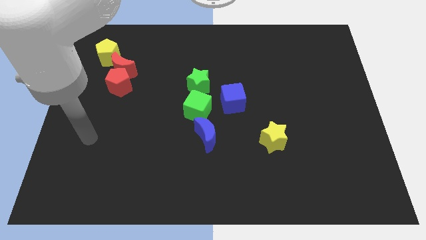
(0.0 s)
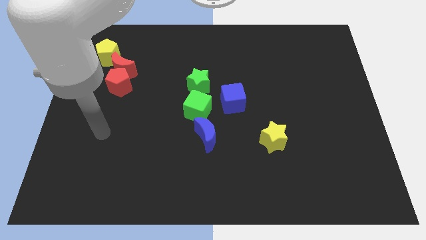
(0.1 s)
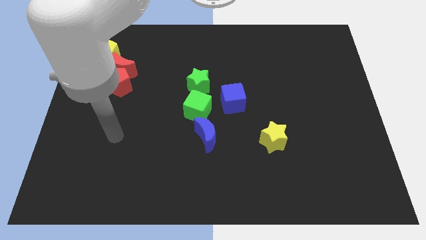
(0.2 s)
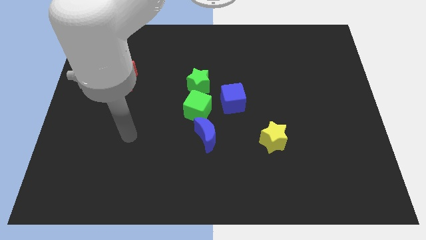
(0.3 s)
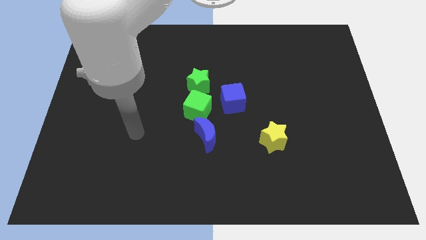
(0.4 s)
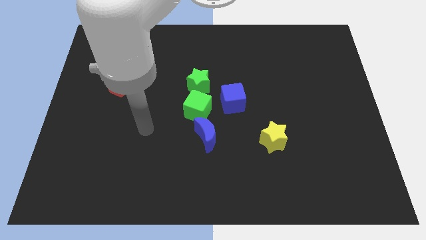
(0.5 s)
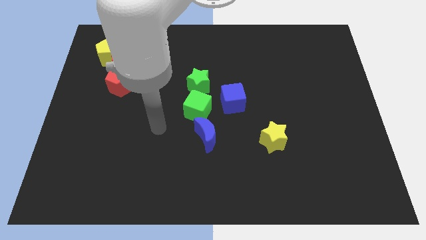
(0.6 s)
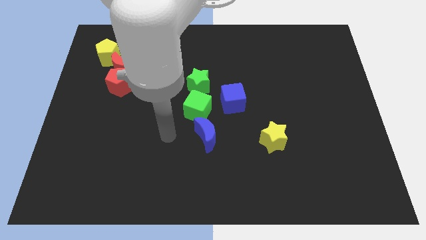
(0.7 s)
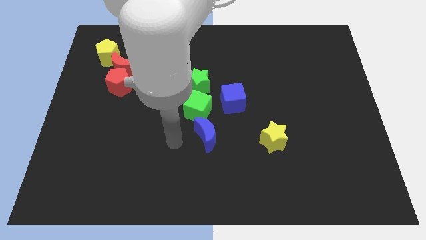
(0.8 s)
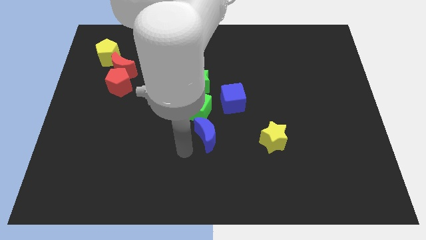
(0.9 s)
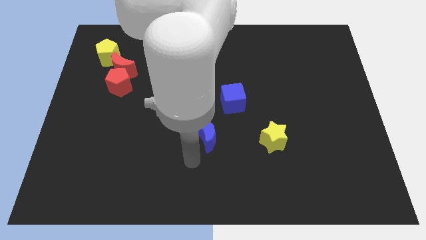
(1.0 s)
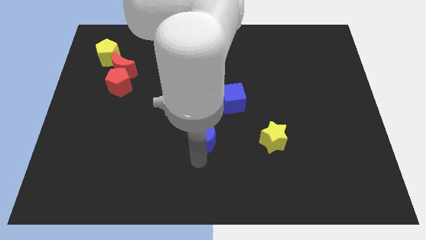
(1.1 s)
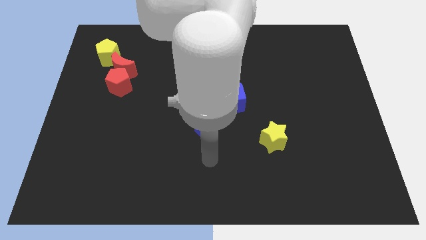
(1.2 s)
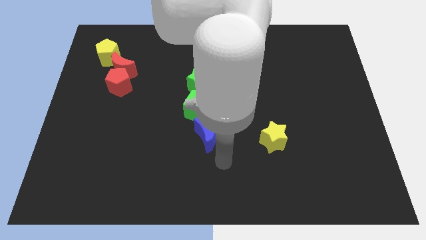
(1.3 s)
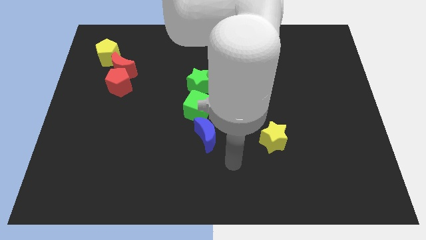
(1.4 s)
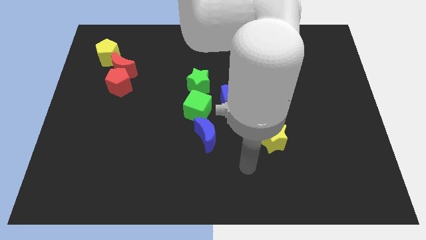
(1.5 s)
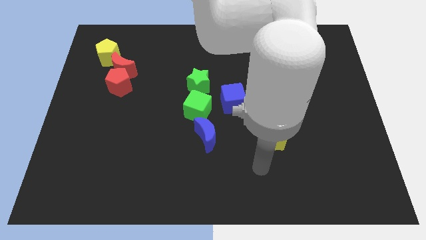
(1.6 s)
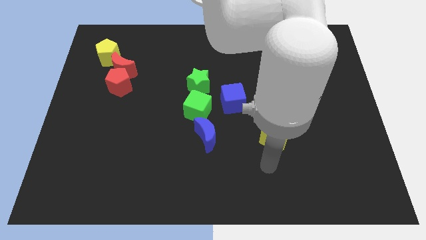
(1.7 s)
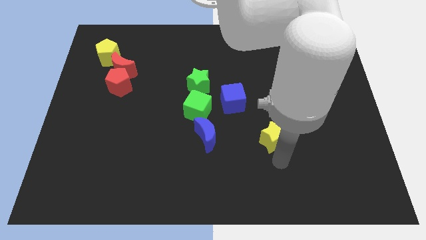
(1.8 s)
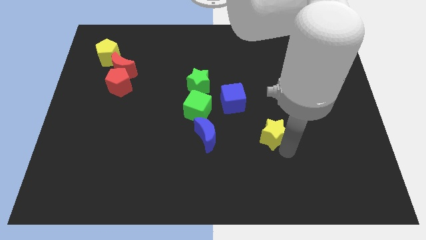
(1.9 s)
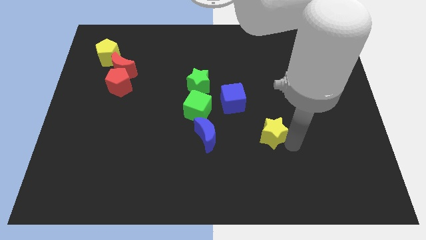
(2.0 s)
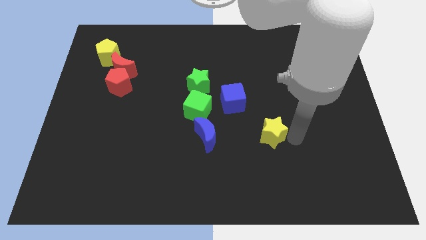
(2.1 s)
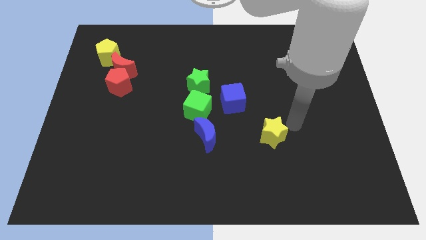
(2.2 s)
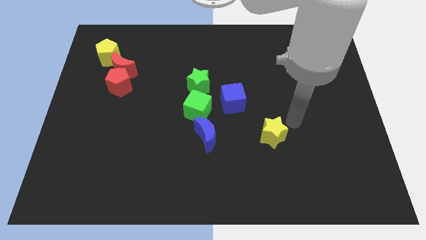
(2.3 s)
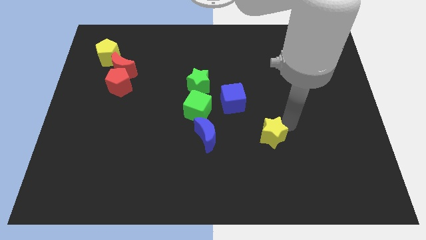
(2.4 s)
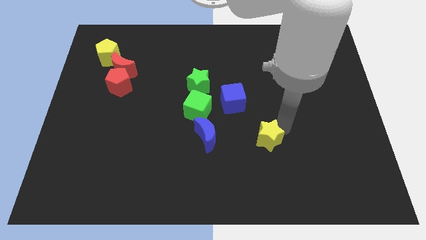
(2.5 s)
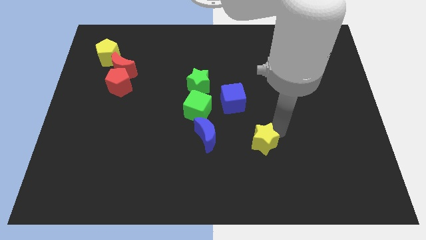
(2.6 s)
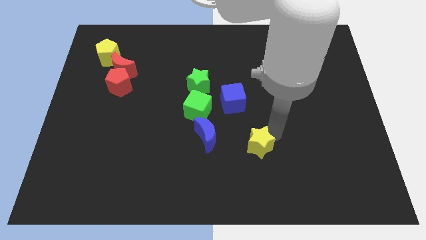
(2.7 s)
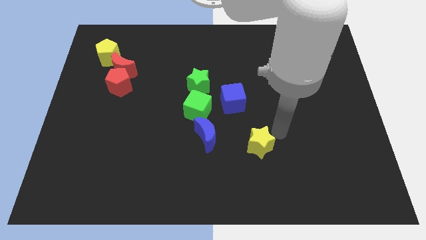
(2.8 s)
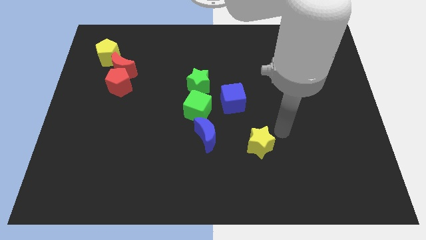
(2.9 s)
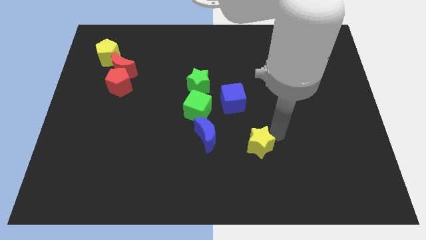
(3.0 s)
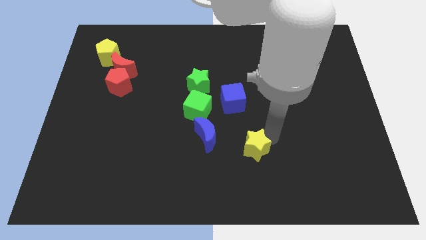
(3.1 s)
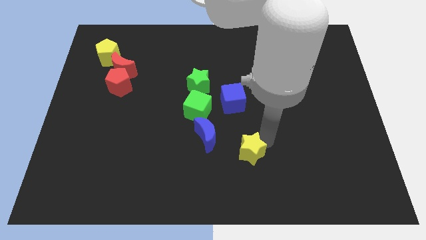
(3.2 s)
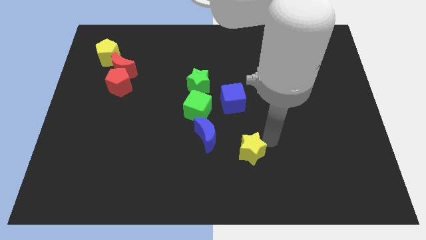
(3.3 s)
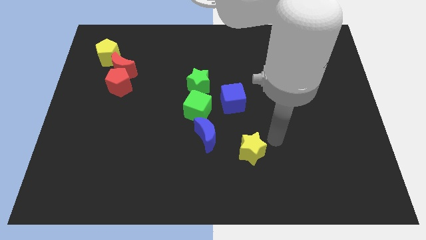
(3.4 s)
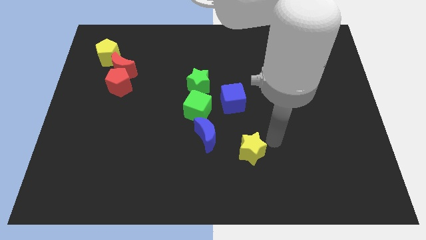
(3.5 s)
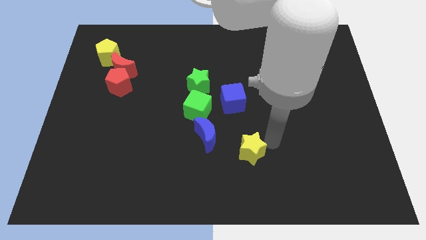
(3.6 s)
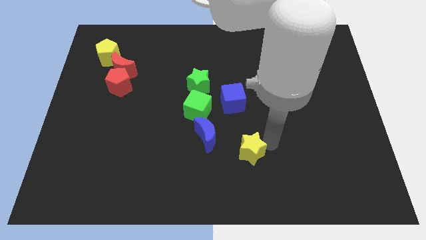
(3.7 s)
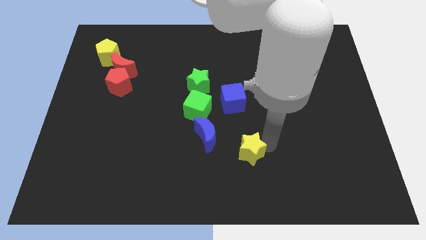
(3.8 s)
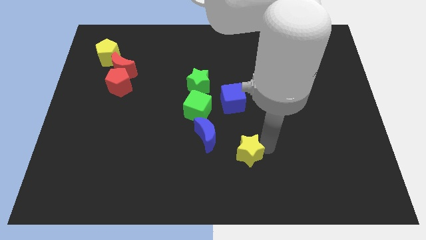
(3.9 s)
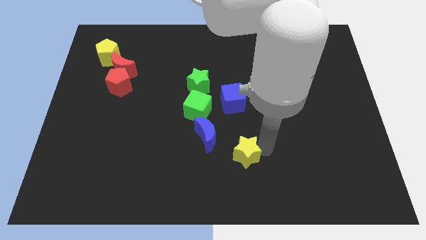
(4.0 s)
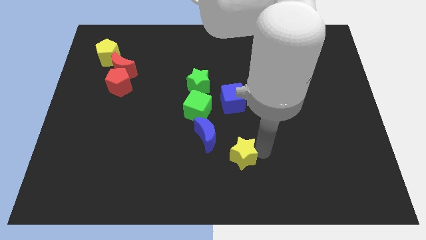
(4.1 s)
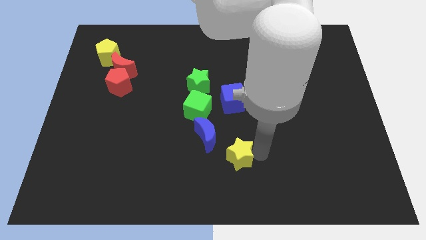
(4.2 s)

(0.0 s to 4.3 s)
slightly slide the yellow star to the left

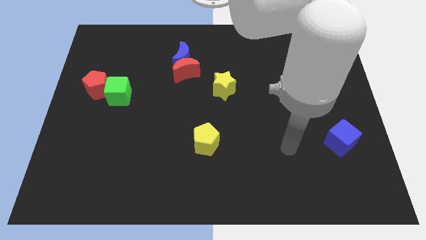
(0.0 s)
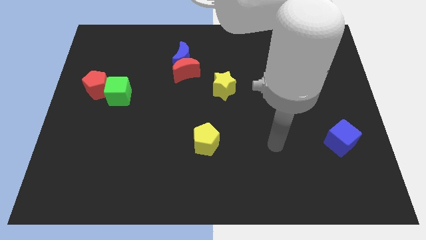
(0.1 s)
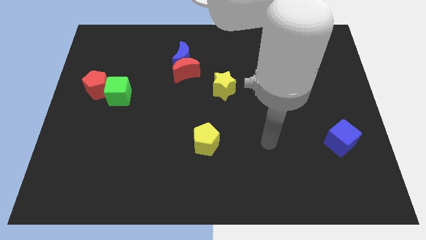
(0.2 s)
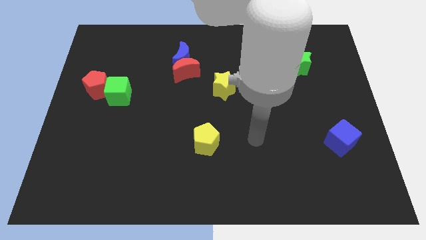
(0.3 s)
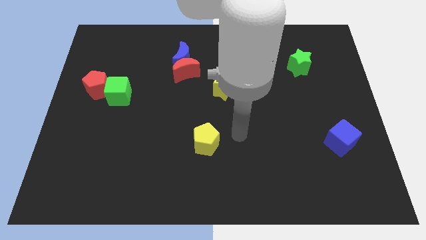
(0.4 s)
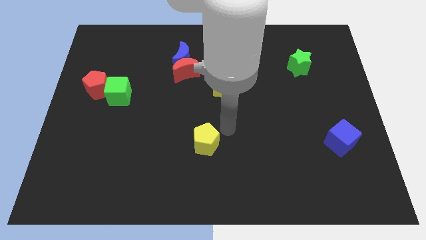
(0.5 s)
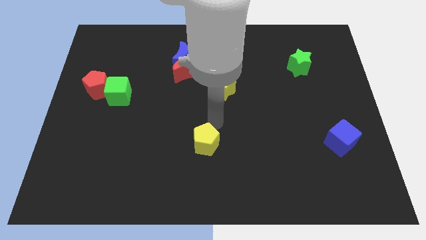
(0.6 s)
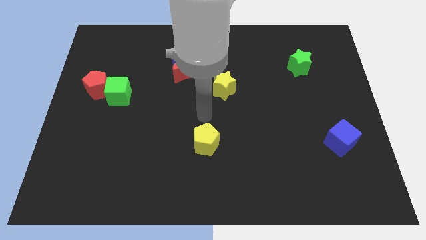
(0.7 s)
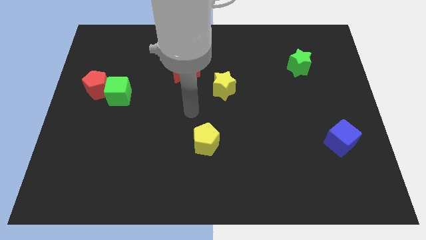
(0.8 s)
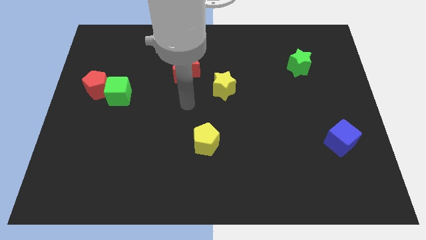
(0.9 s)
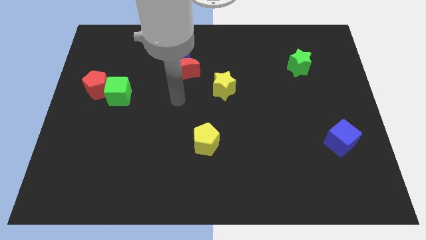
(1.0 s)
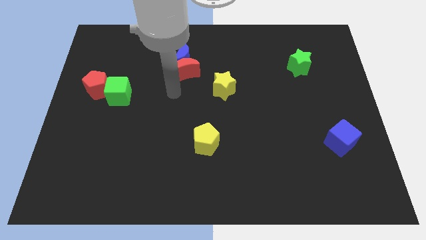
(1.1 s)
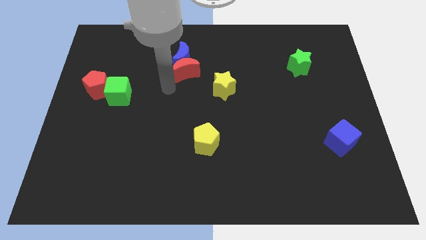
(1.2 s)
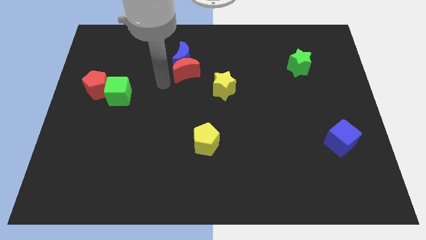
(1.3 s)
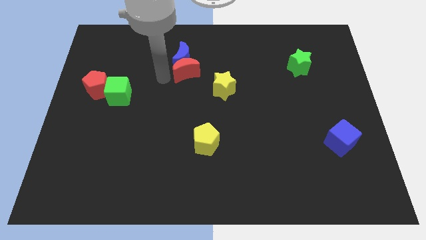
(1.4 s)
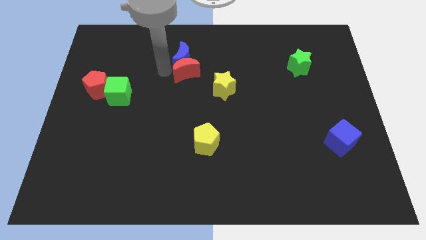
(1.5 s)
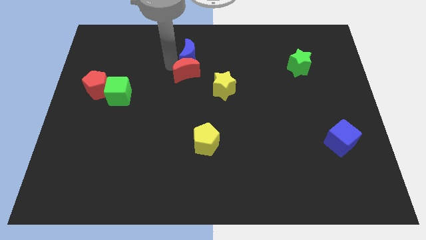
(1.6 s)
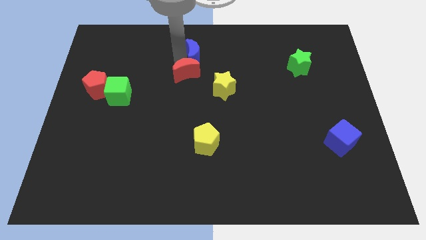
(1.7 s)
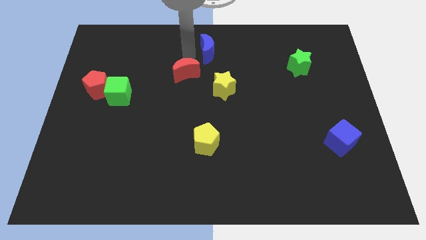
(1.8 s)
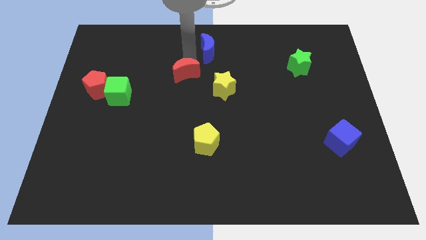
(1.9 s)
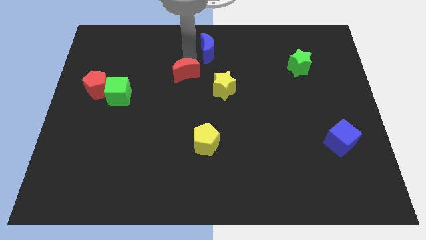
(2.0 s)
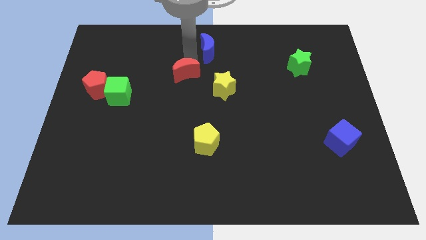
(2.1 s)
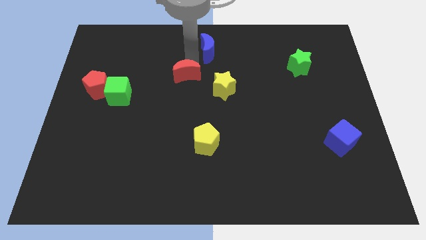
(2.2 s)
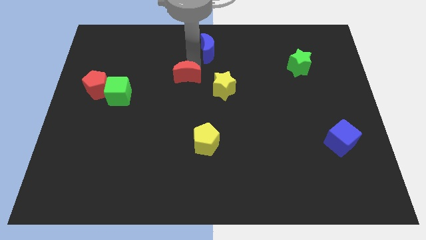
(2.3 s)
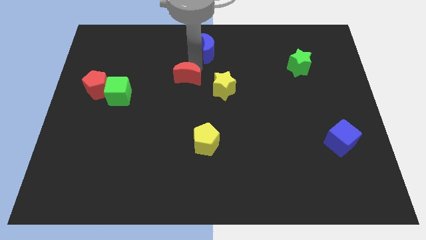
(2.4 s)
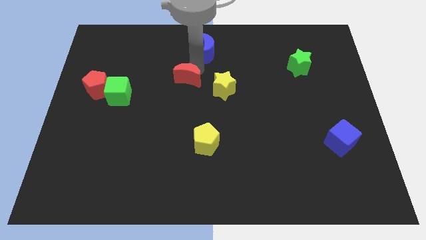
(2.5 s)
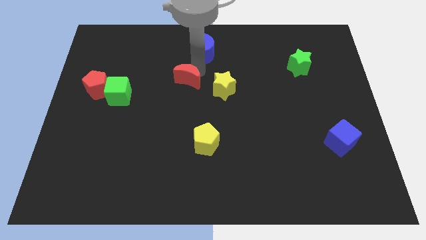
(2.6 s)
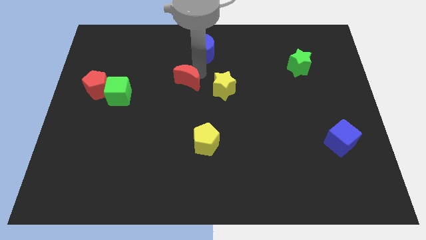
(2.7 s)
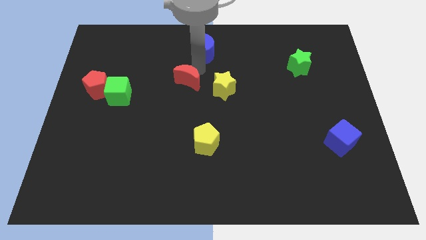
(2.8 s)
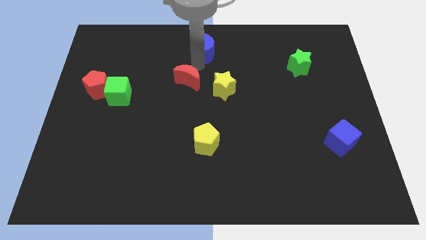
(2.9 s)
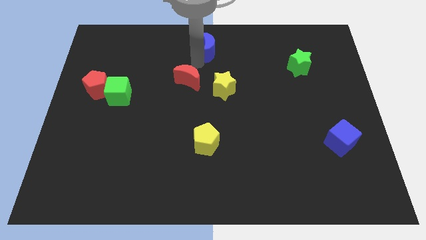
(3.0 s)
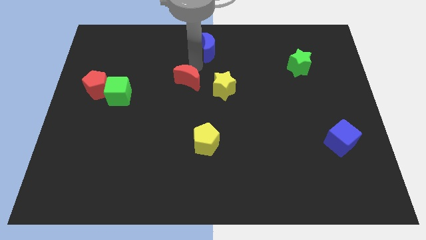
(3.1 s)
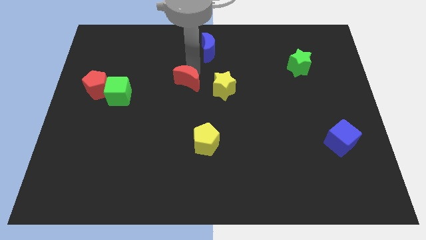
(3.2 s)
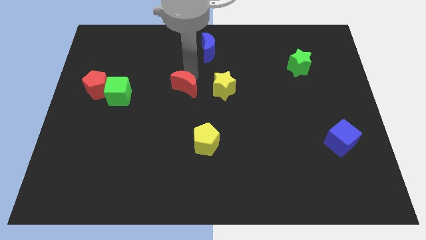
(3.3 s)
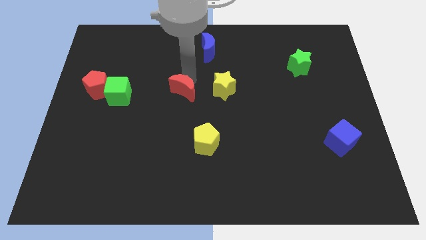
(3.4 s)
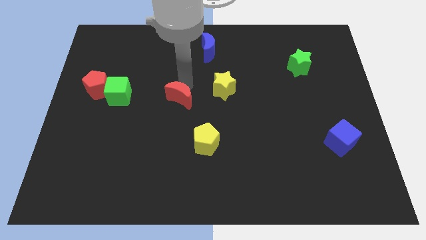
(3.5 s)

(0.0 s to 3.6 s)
slightly move the red moon down

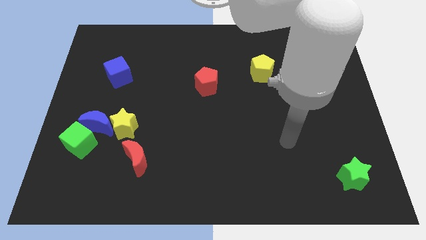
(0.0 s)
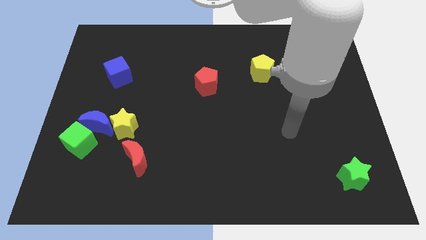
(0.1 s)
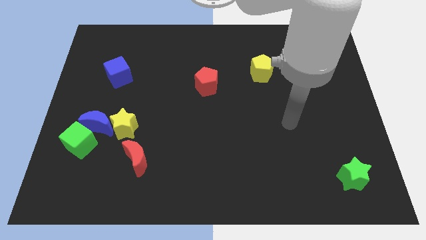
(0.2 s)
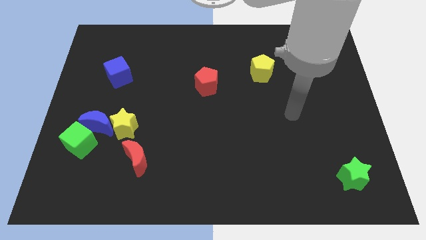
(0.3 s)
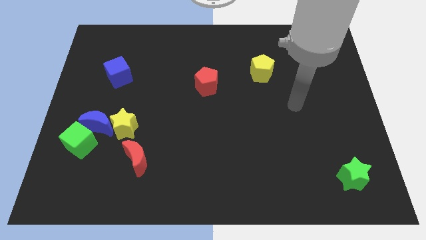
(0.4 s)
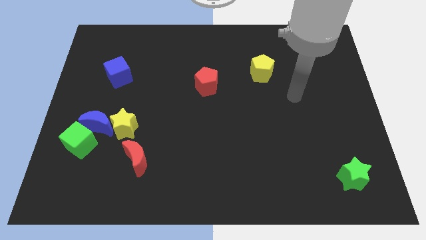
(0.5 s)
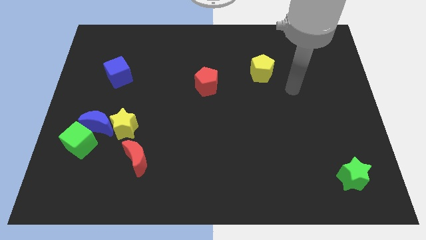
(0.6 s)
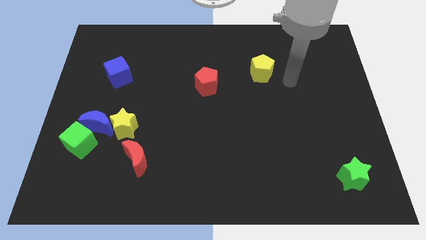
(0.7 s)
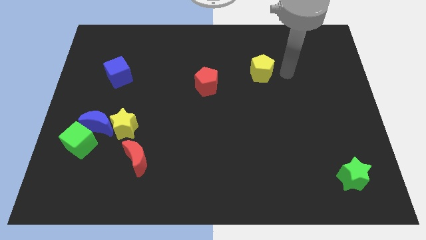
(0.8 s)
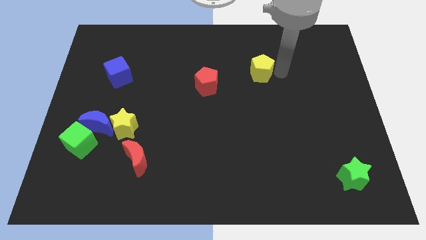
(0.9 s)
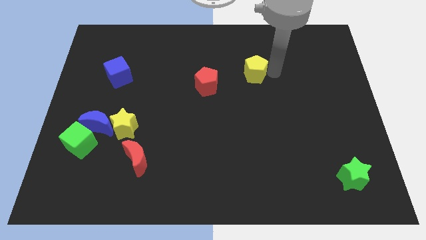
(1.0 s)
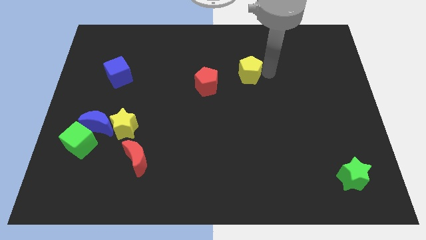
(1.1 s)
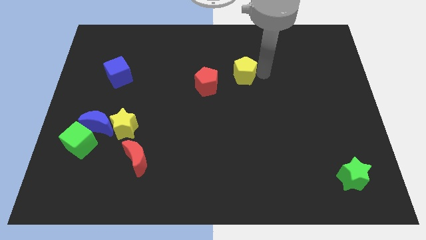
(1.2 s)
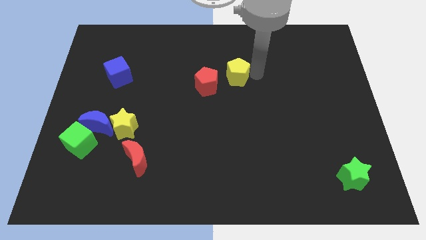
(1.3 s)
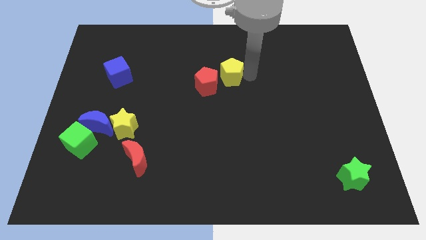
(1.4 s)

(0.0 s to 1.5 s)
slightly push the yellow pentagon to the left
